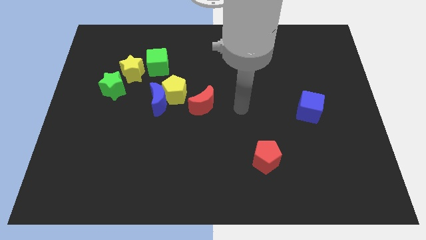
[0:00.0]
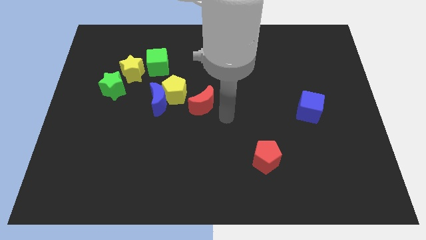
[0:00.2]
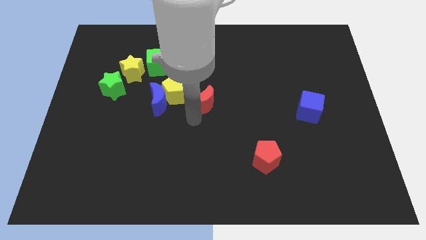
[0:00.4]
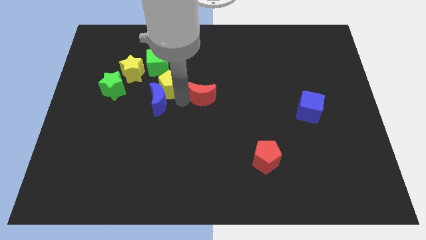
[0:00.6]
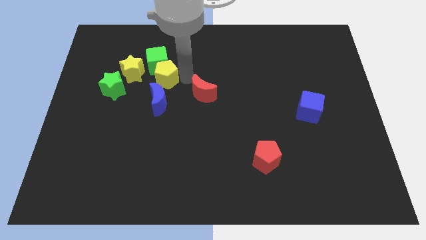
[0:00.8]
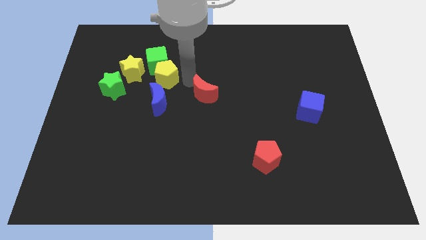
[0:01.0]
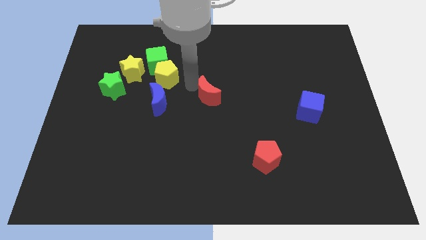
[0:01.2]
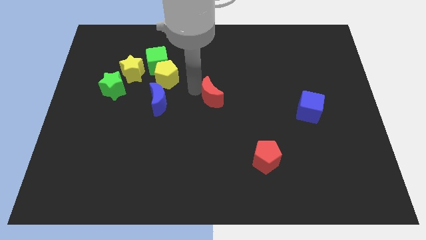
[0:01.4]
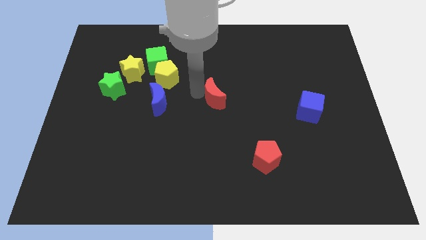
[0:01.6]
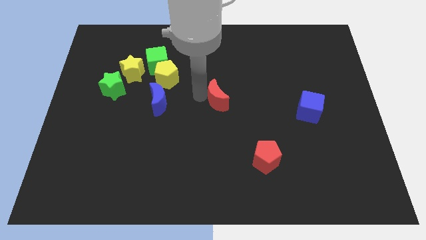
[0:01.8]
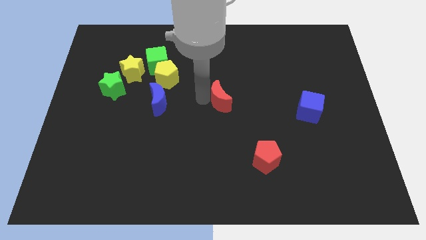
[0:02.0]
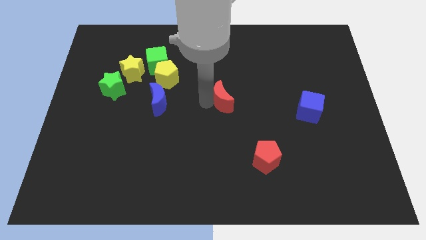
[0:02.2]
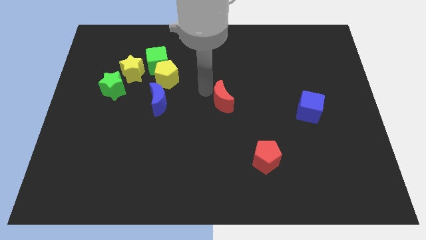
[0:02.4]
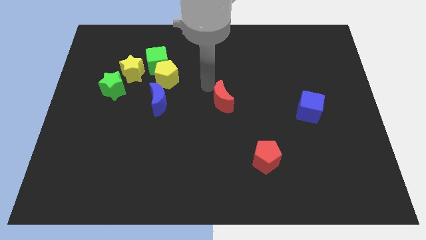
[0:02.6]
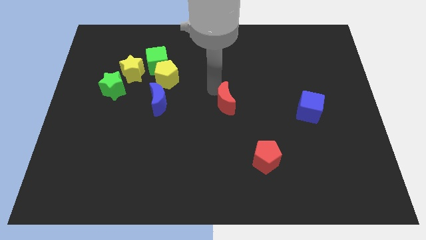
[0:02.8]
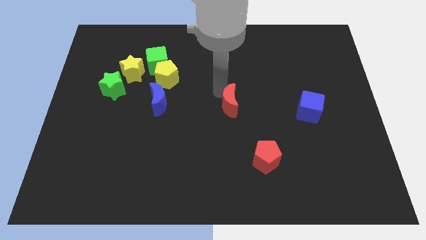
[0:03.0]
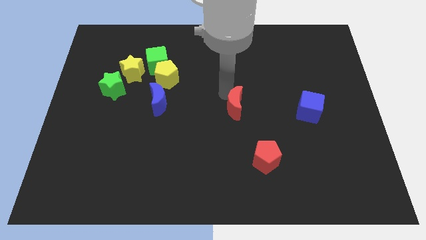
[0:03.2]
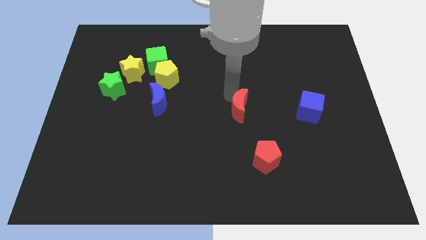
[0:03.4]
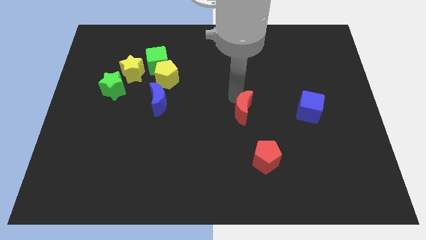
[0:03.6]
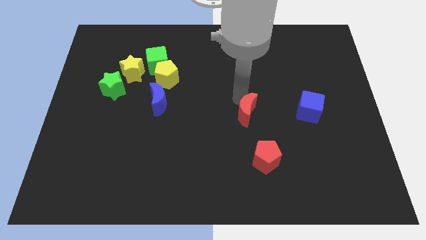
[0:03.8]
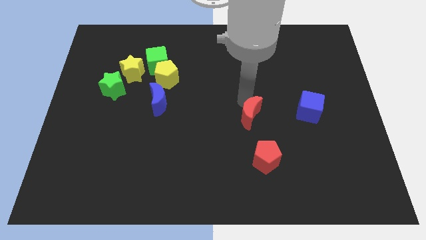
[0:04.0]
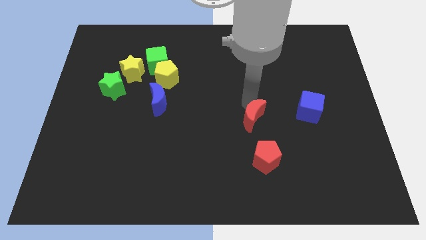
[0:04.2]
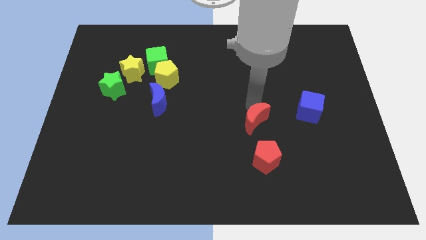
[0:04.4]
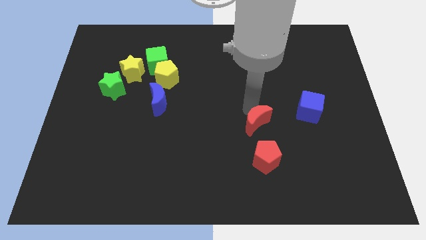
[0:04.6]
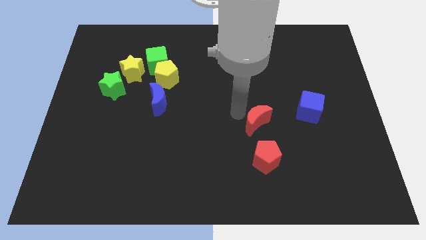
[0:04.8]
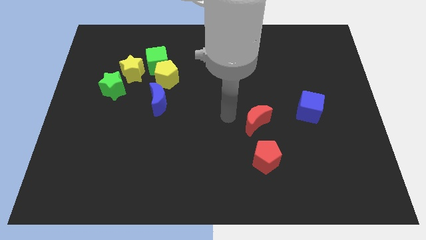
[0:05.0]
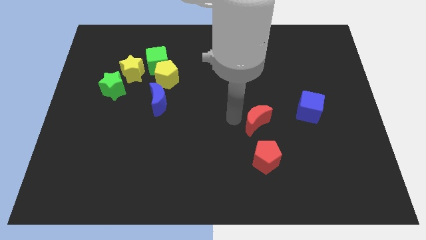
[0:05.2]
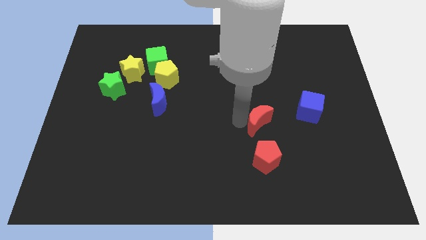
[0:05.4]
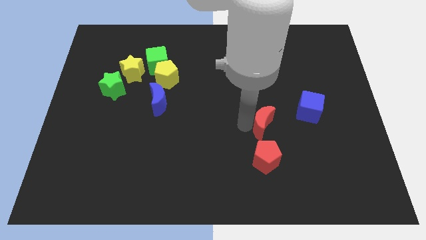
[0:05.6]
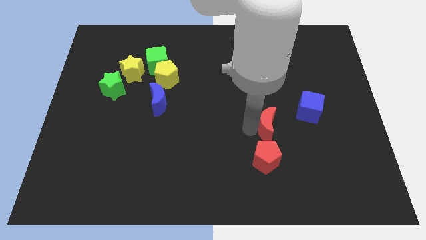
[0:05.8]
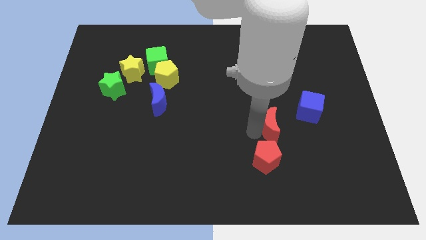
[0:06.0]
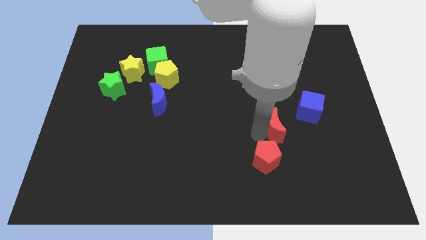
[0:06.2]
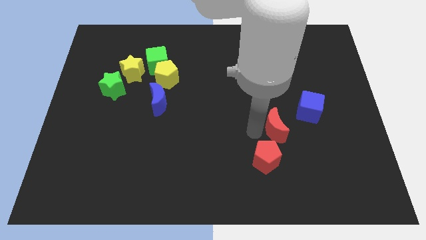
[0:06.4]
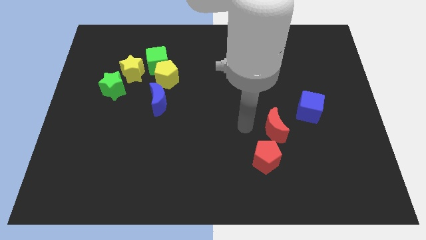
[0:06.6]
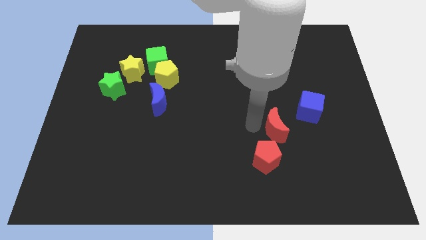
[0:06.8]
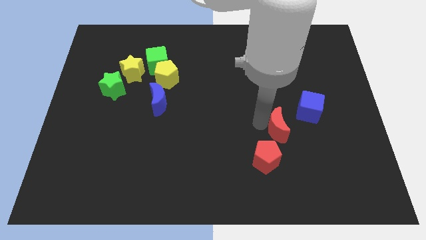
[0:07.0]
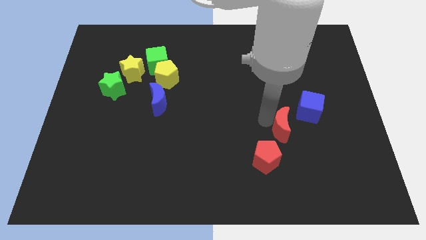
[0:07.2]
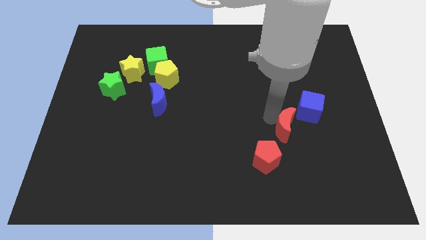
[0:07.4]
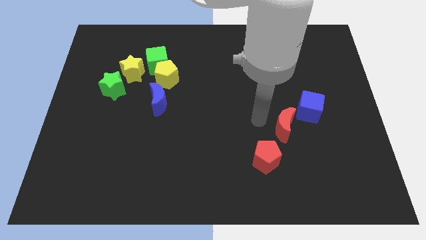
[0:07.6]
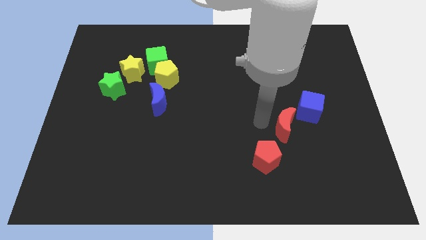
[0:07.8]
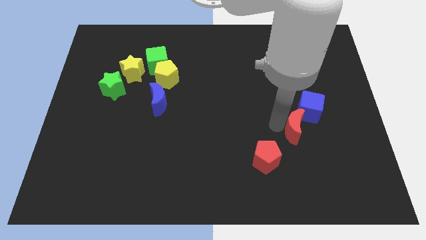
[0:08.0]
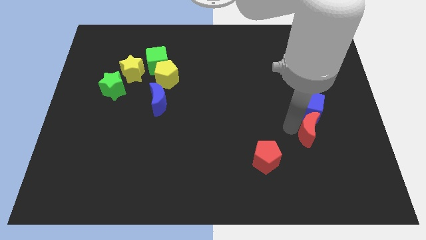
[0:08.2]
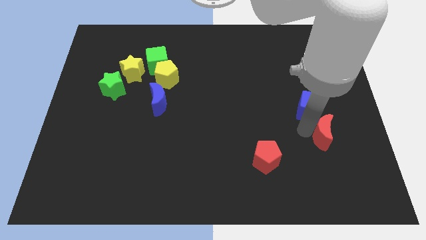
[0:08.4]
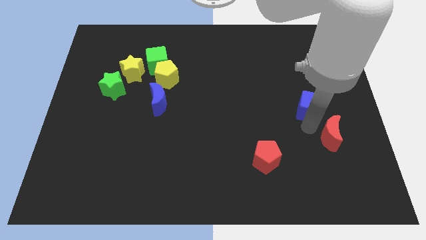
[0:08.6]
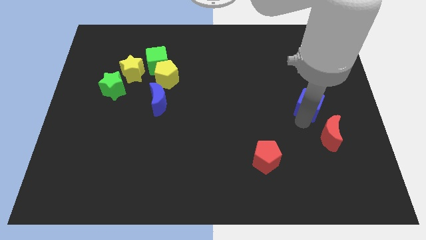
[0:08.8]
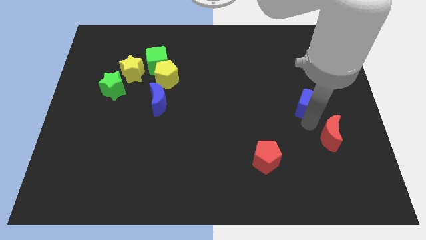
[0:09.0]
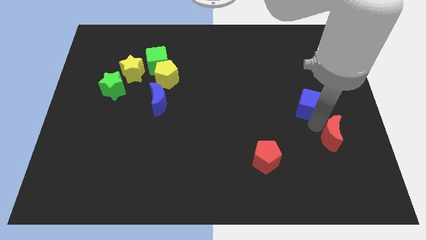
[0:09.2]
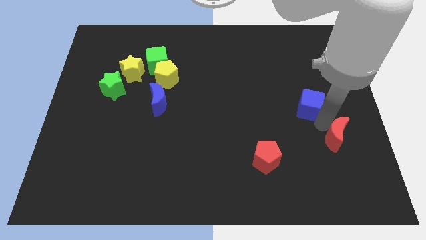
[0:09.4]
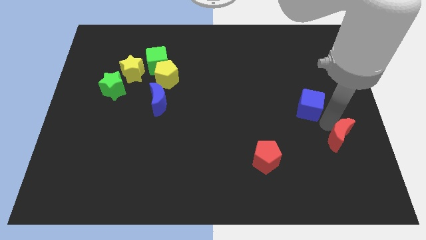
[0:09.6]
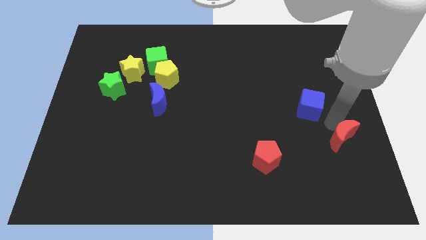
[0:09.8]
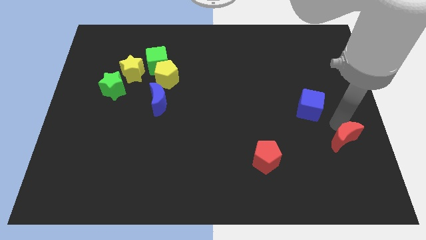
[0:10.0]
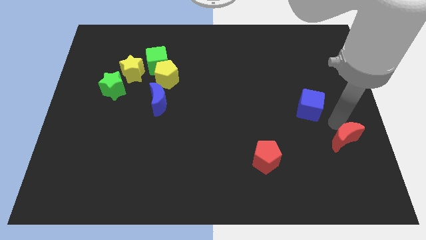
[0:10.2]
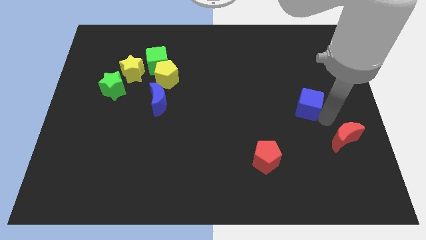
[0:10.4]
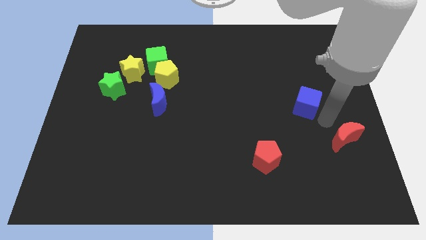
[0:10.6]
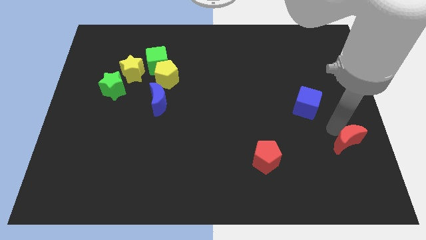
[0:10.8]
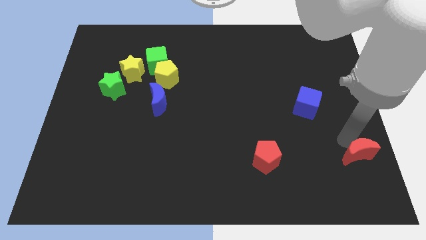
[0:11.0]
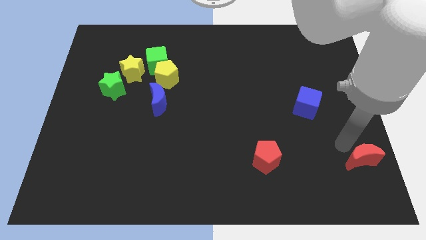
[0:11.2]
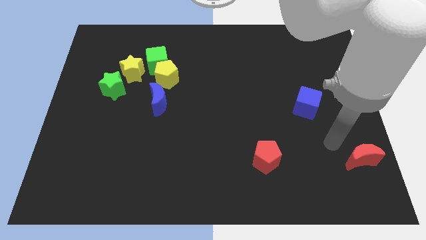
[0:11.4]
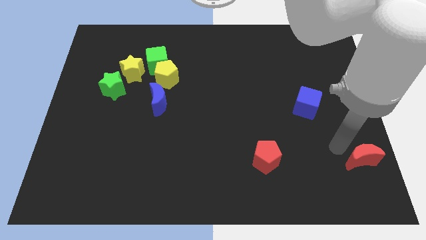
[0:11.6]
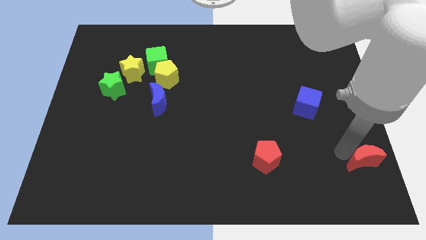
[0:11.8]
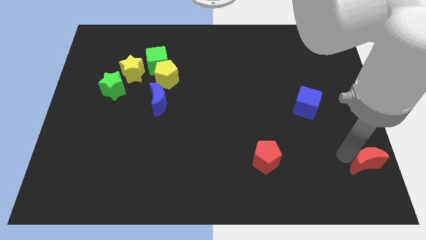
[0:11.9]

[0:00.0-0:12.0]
slide the red moon to the lower right corner
